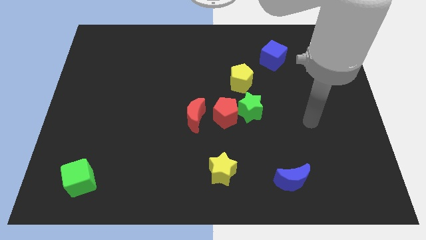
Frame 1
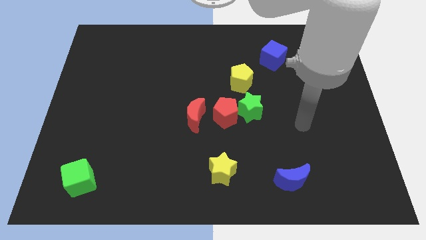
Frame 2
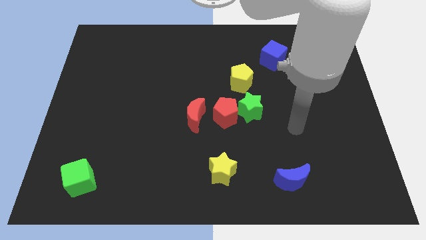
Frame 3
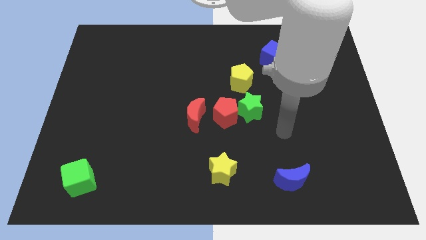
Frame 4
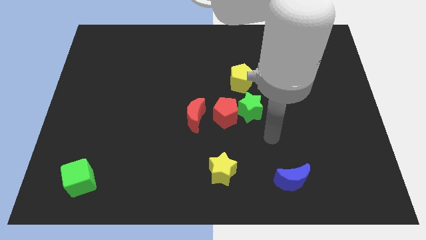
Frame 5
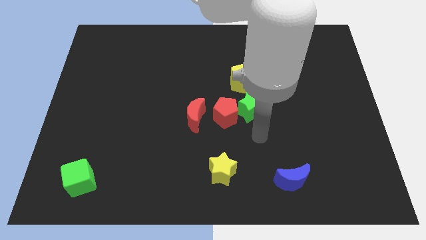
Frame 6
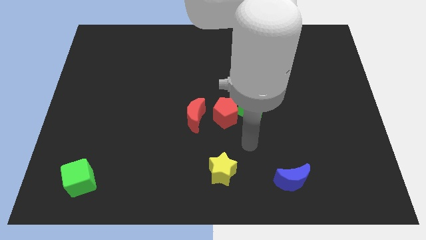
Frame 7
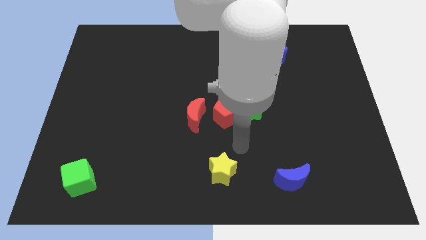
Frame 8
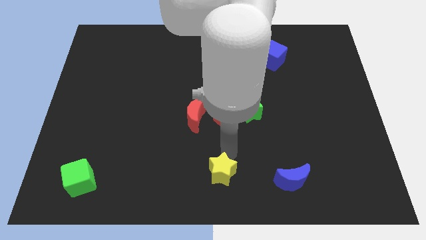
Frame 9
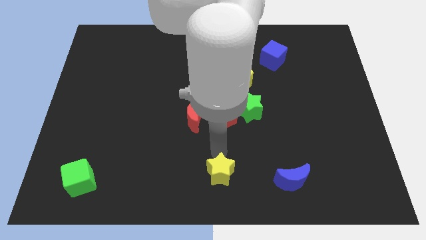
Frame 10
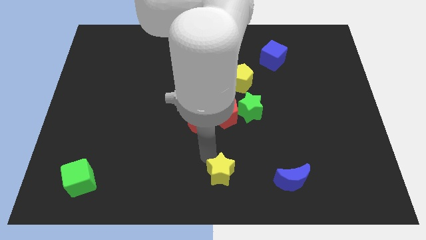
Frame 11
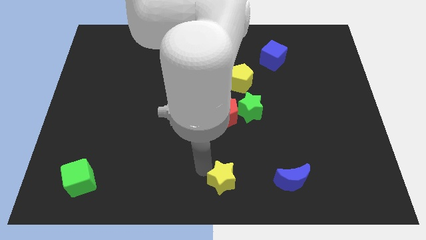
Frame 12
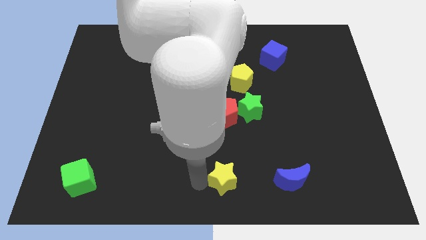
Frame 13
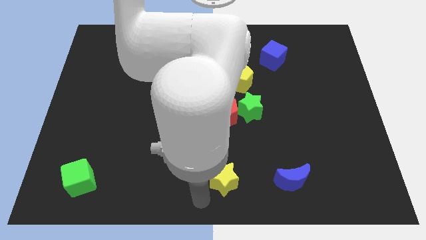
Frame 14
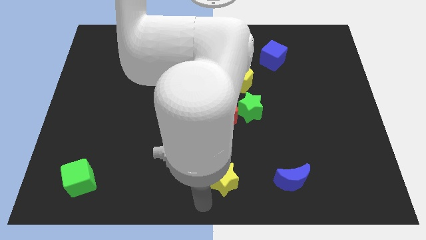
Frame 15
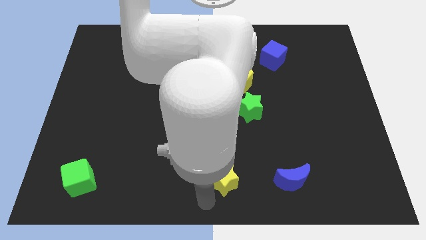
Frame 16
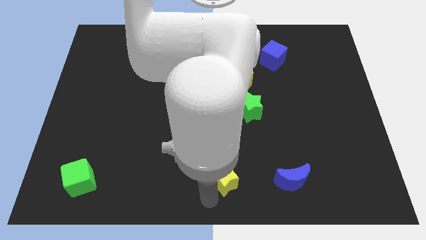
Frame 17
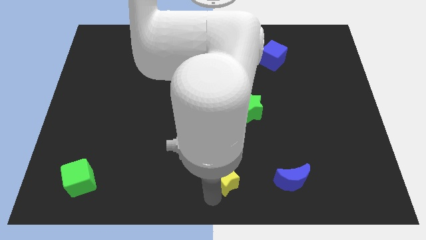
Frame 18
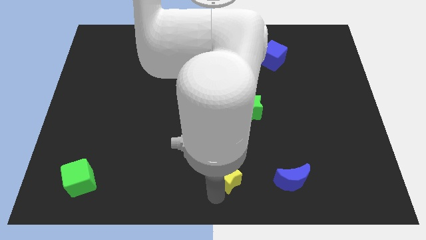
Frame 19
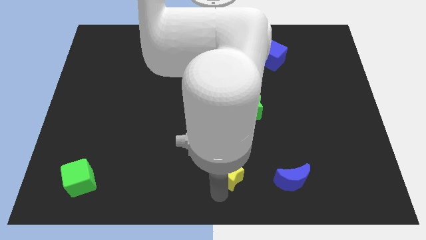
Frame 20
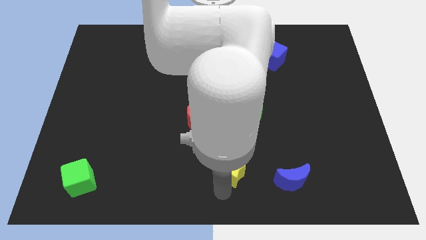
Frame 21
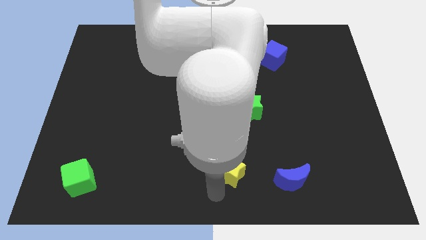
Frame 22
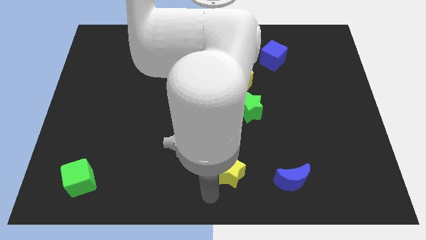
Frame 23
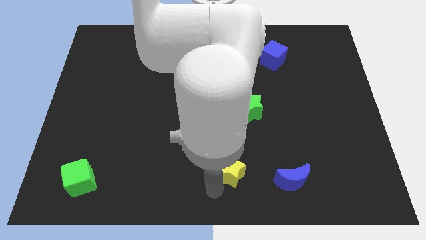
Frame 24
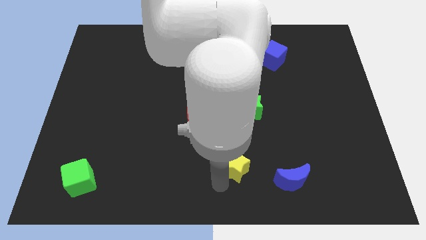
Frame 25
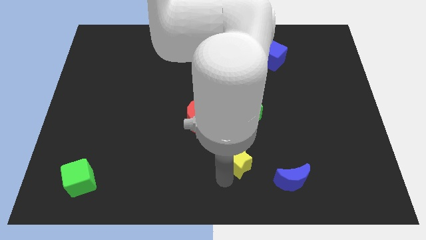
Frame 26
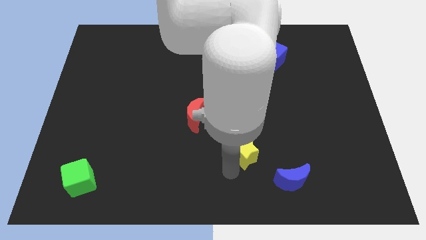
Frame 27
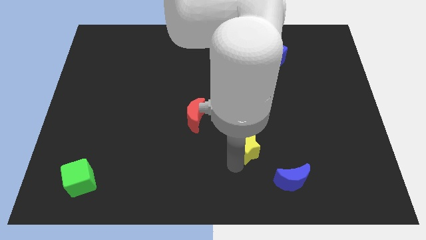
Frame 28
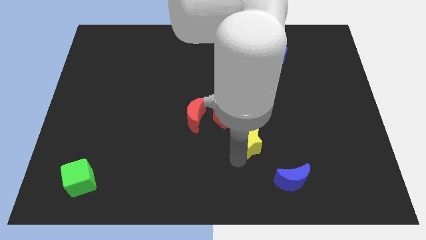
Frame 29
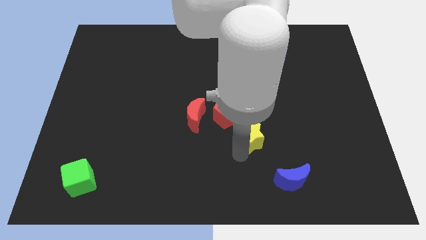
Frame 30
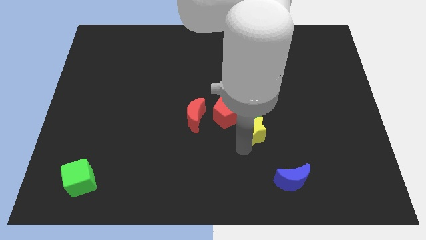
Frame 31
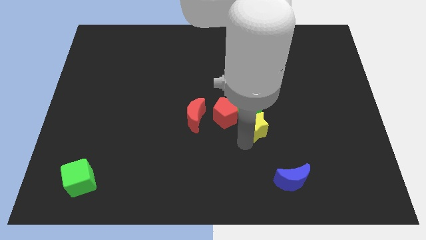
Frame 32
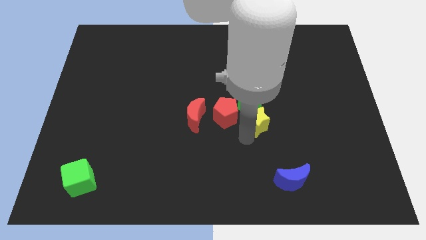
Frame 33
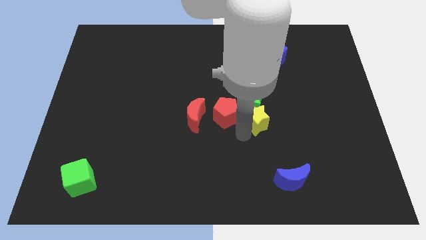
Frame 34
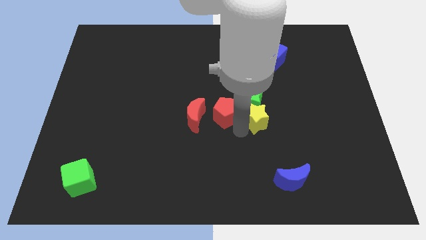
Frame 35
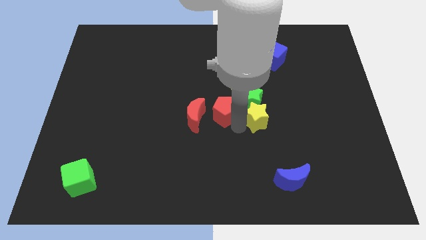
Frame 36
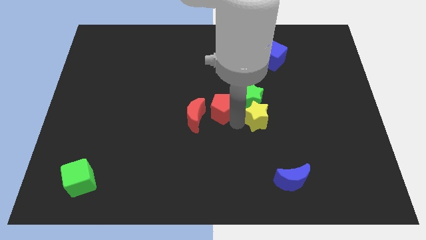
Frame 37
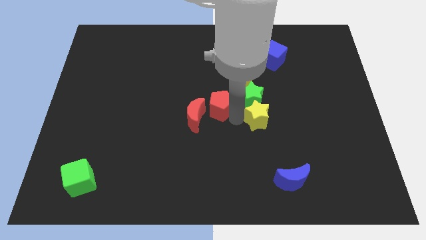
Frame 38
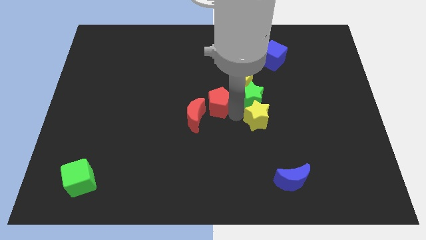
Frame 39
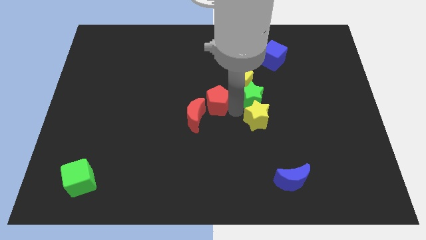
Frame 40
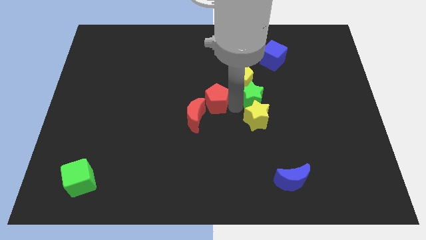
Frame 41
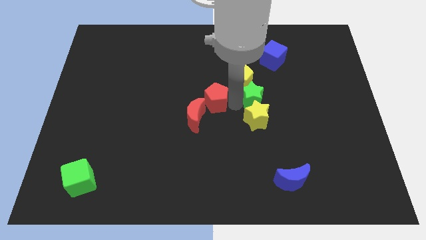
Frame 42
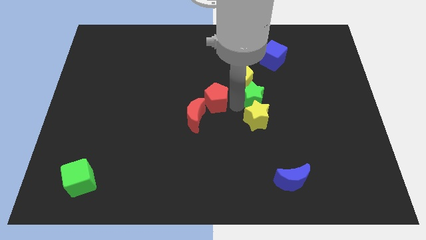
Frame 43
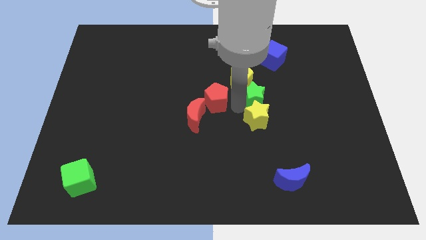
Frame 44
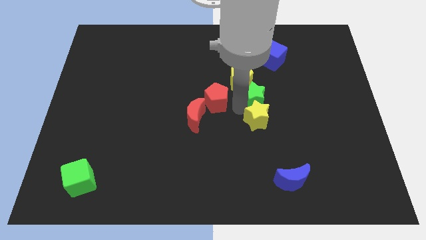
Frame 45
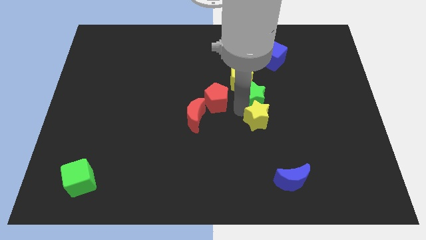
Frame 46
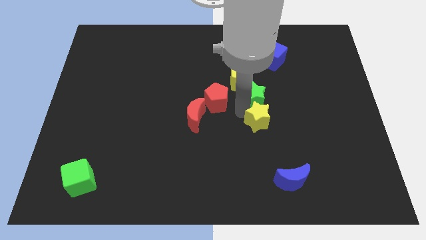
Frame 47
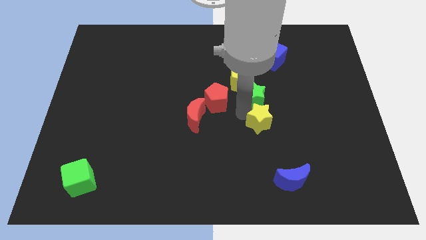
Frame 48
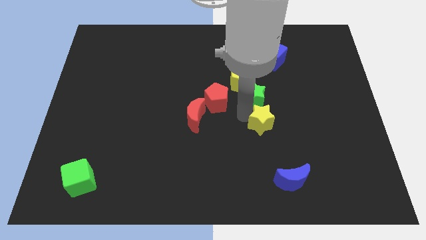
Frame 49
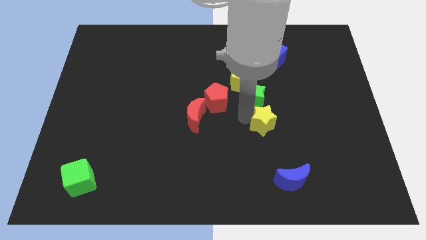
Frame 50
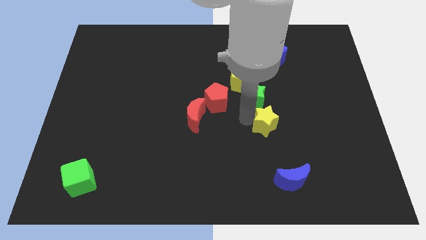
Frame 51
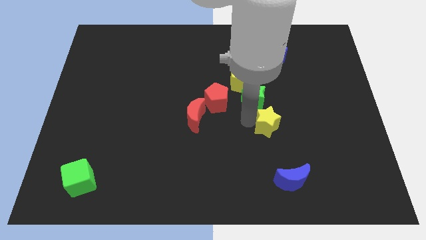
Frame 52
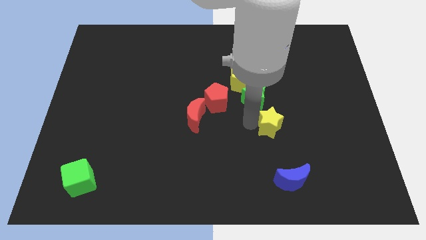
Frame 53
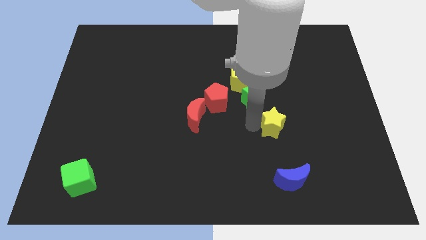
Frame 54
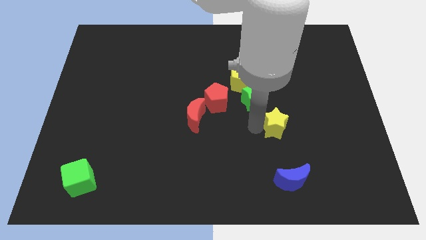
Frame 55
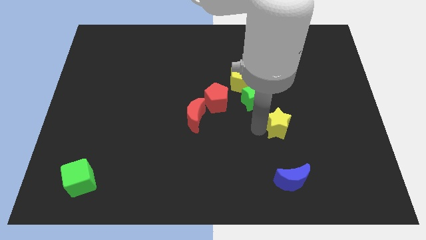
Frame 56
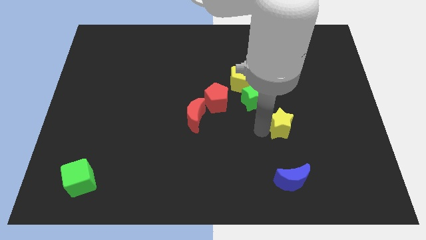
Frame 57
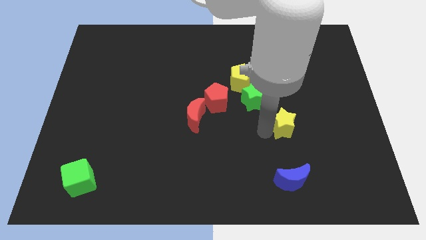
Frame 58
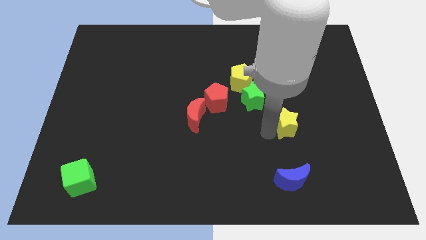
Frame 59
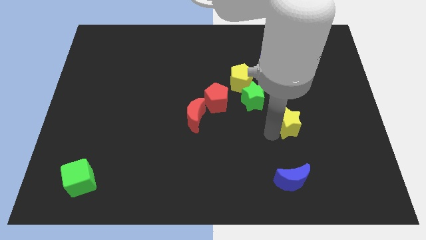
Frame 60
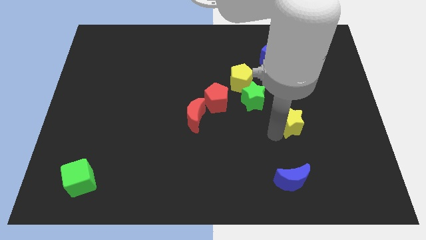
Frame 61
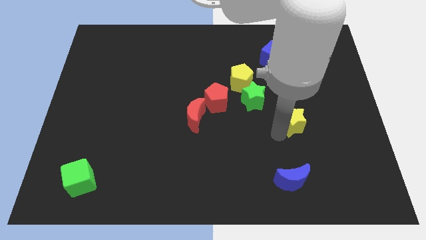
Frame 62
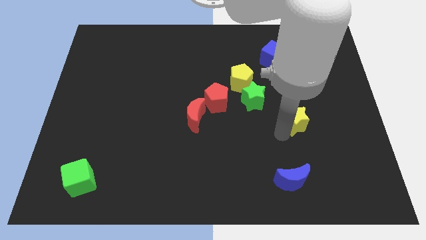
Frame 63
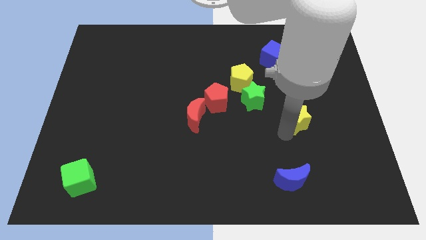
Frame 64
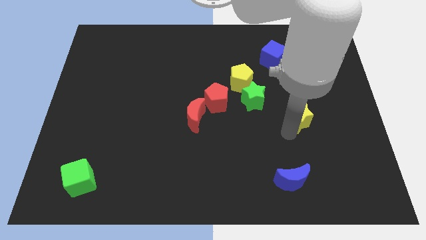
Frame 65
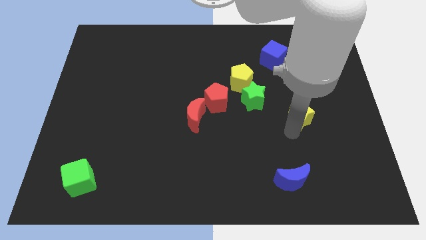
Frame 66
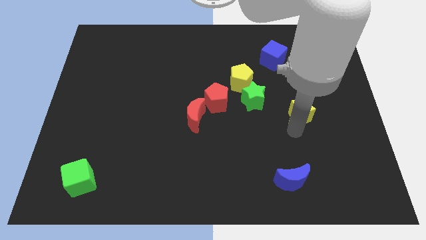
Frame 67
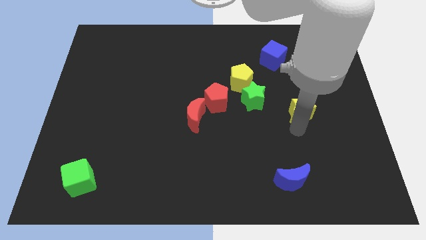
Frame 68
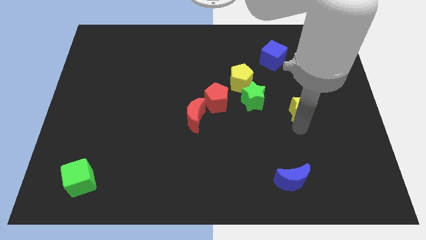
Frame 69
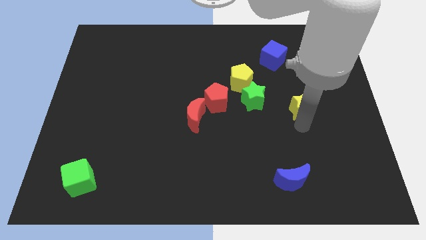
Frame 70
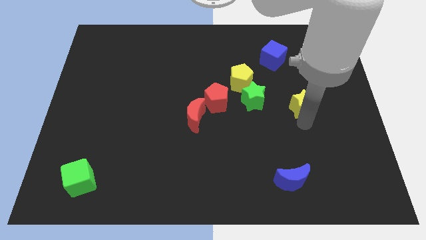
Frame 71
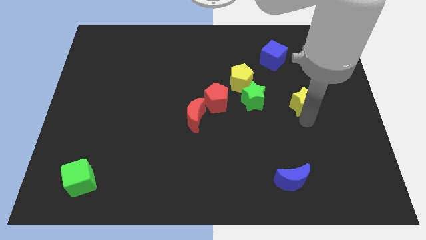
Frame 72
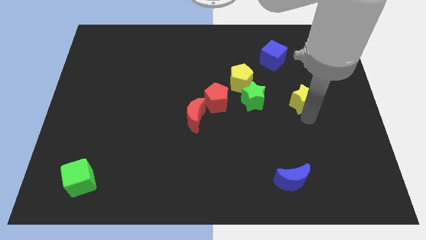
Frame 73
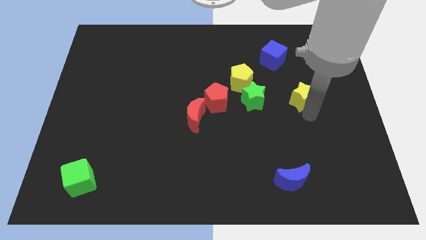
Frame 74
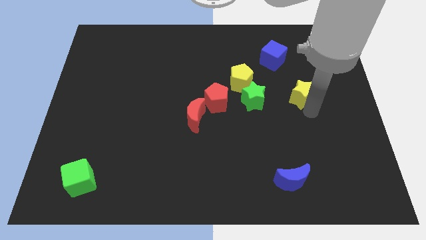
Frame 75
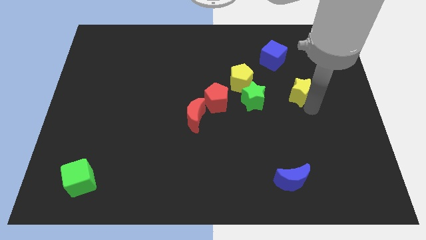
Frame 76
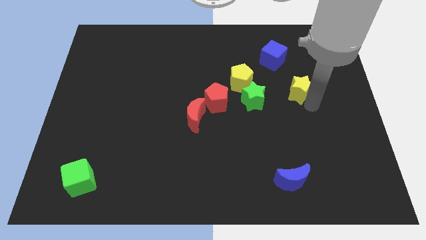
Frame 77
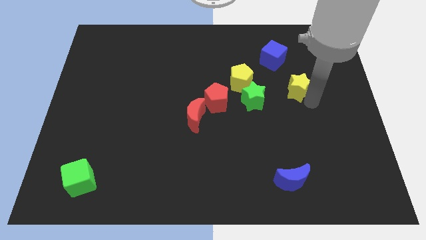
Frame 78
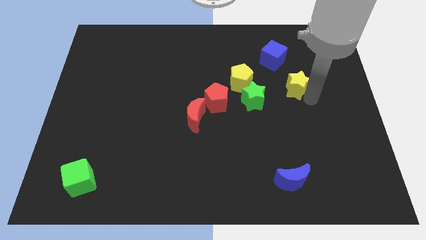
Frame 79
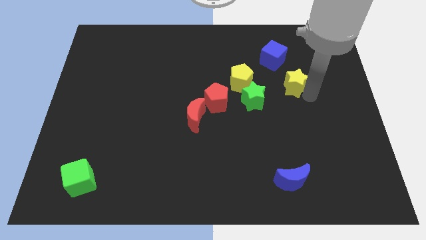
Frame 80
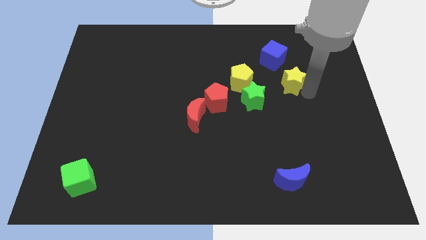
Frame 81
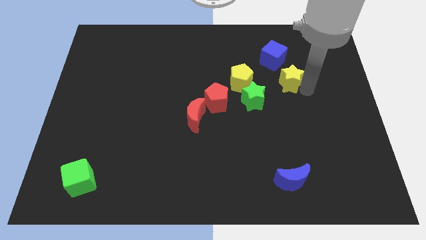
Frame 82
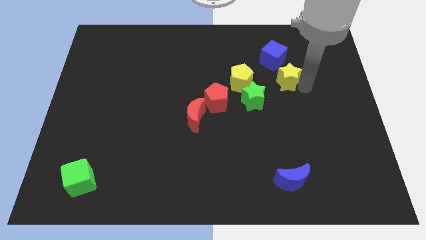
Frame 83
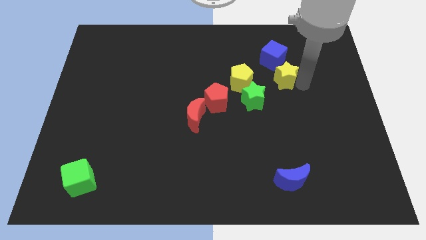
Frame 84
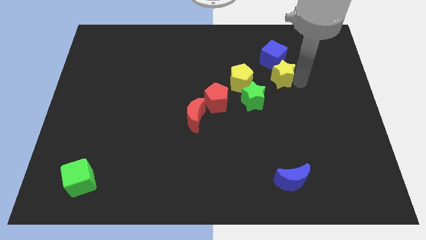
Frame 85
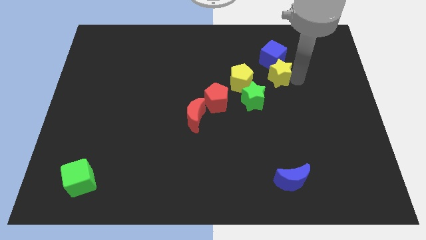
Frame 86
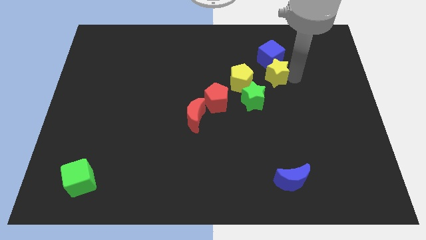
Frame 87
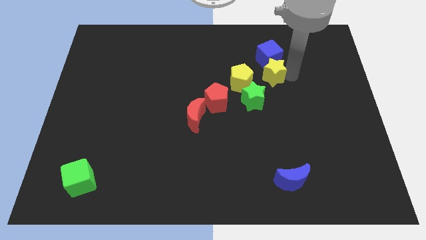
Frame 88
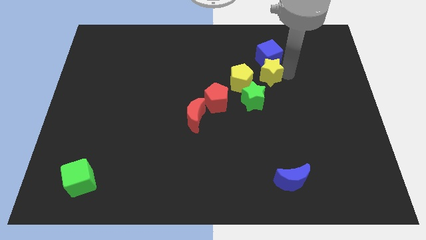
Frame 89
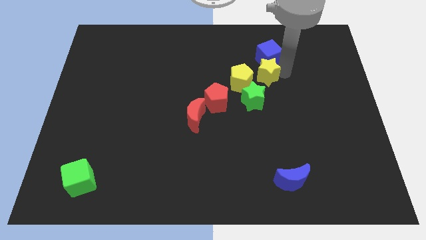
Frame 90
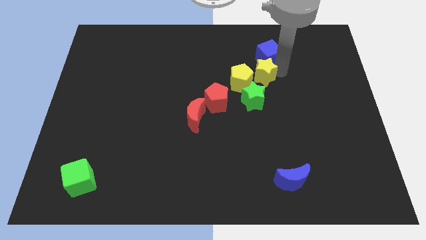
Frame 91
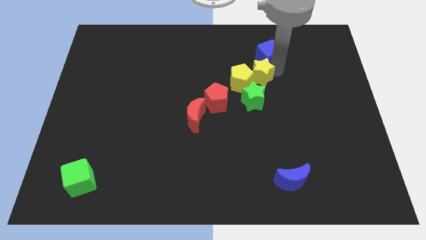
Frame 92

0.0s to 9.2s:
move the yellow star close to the yellow pentagon
